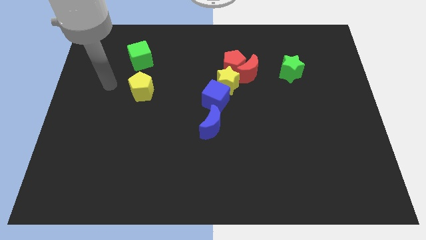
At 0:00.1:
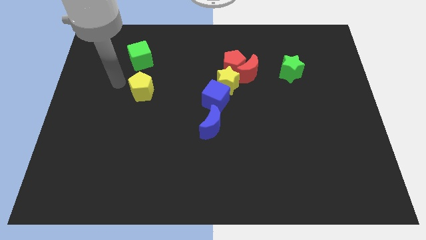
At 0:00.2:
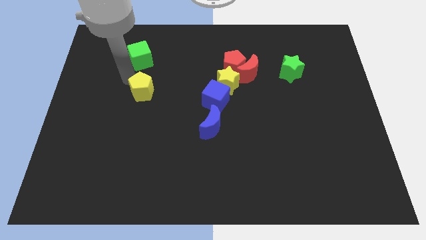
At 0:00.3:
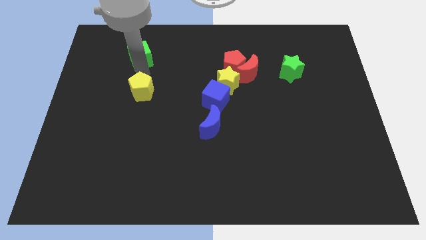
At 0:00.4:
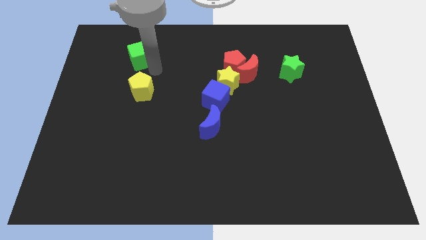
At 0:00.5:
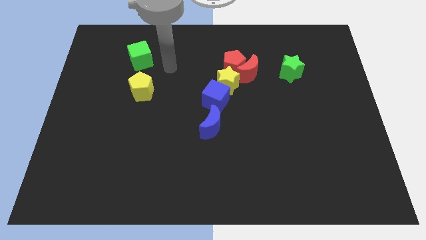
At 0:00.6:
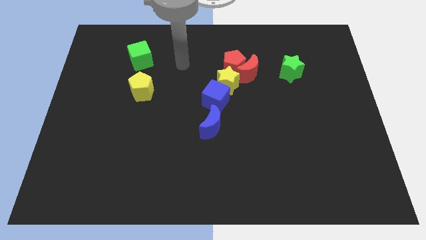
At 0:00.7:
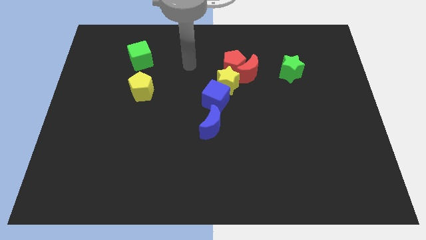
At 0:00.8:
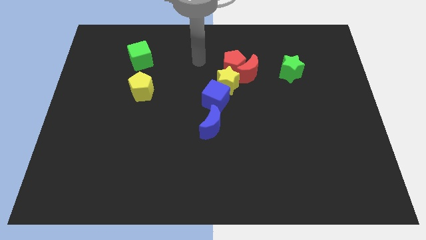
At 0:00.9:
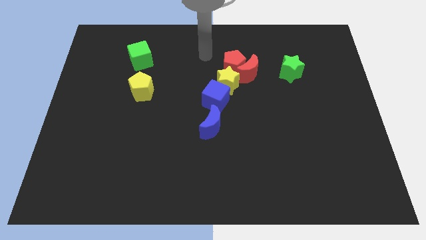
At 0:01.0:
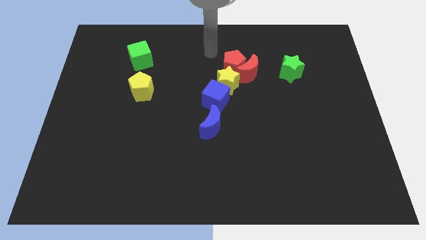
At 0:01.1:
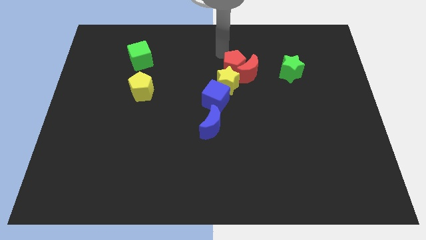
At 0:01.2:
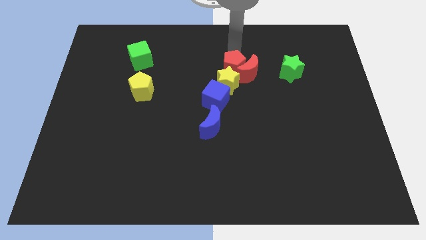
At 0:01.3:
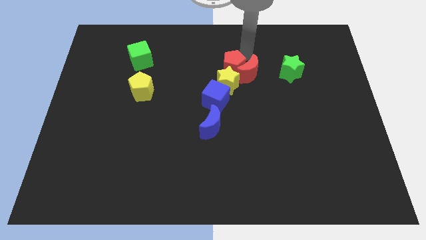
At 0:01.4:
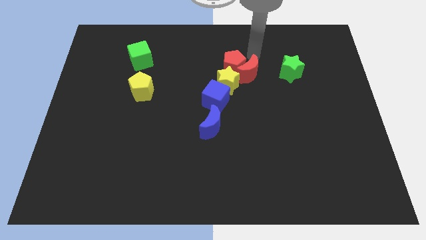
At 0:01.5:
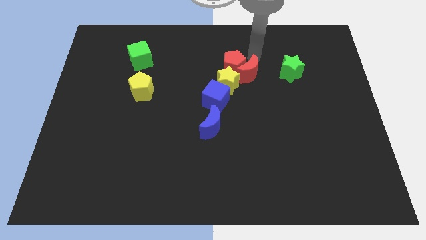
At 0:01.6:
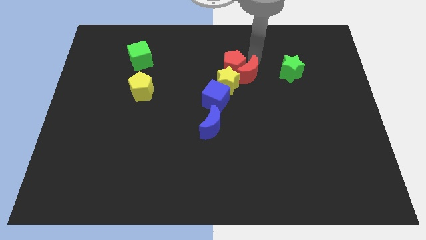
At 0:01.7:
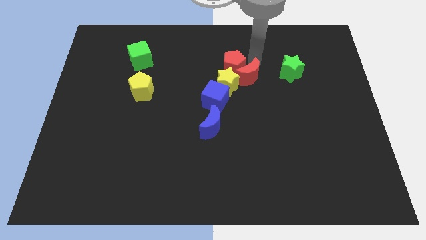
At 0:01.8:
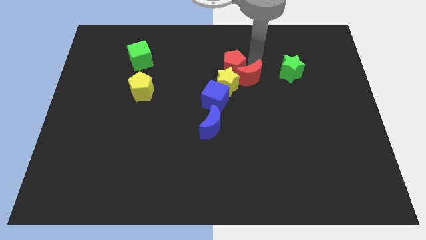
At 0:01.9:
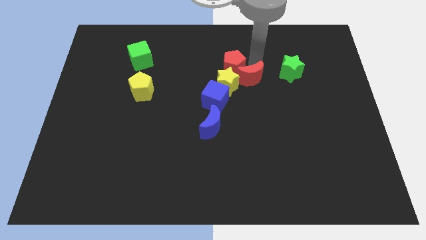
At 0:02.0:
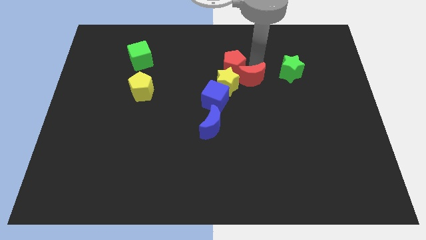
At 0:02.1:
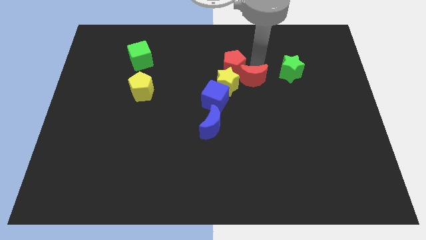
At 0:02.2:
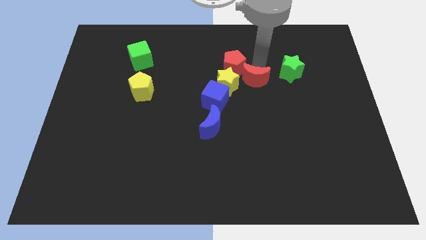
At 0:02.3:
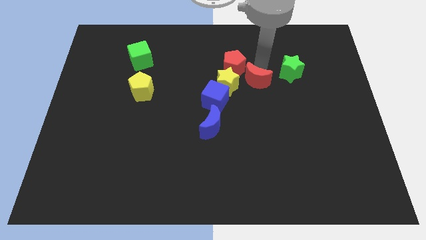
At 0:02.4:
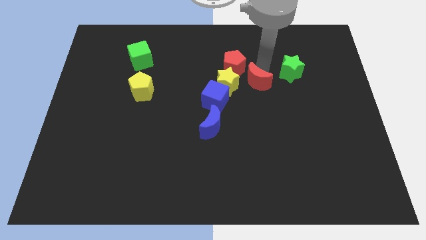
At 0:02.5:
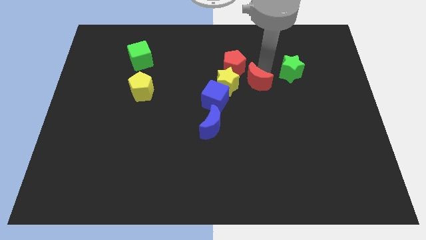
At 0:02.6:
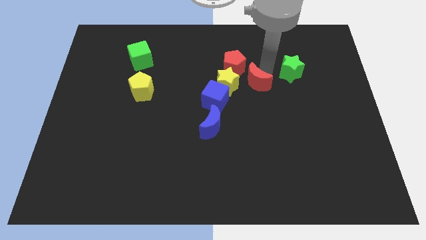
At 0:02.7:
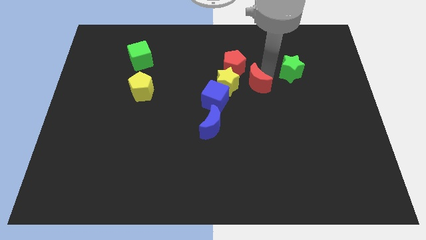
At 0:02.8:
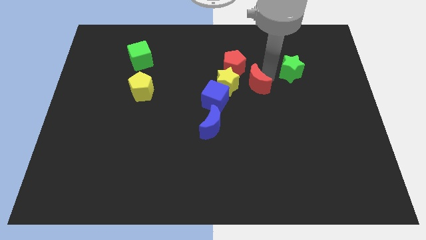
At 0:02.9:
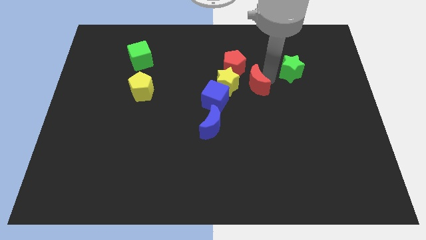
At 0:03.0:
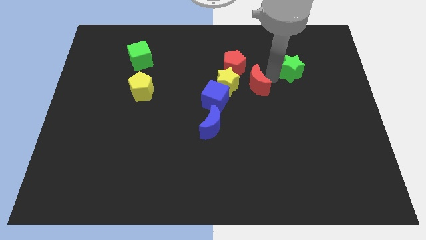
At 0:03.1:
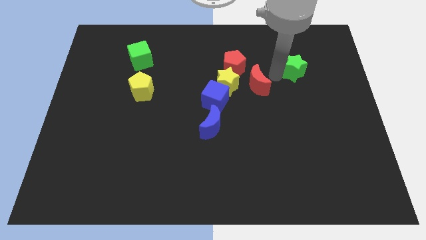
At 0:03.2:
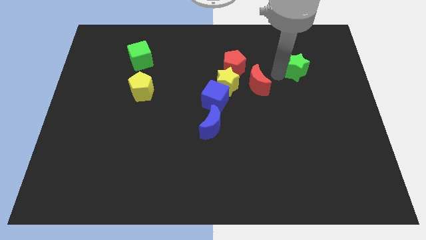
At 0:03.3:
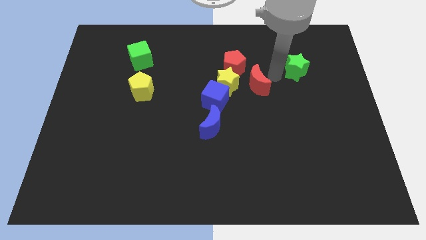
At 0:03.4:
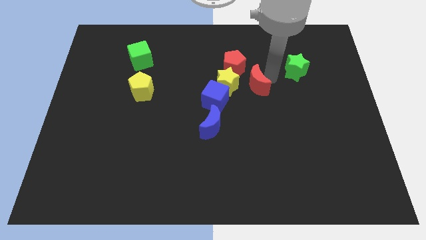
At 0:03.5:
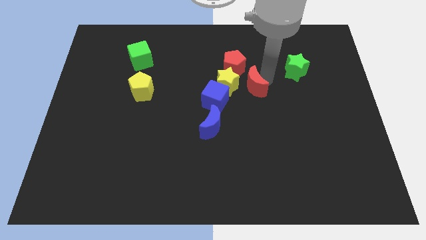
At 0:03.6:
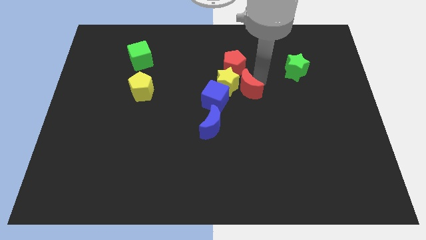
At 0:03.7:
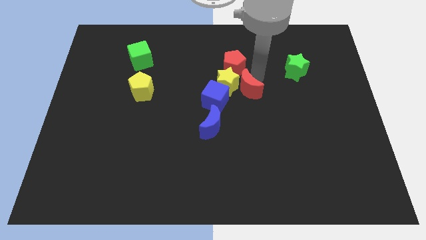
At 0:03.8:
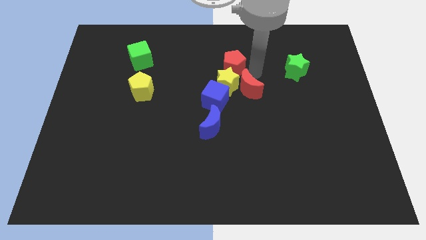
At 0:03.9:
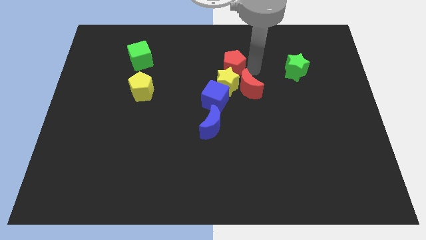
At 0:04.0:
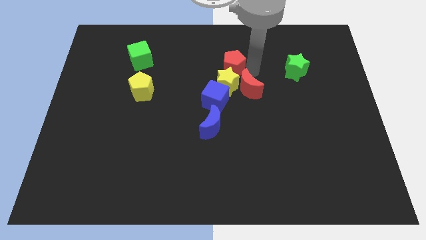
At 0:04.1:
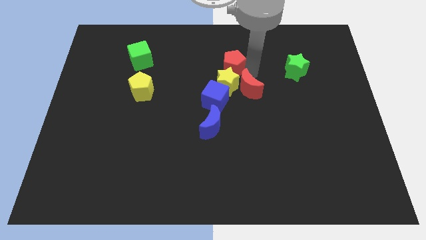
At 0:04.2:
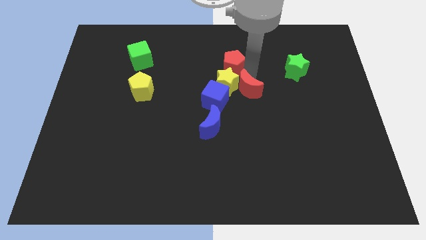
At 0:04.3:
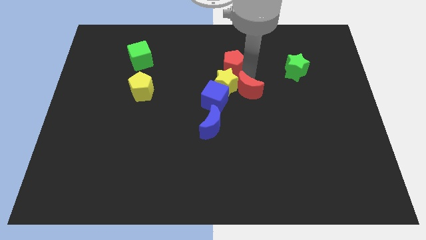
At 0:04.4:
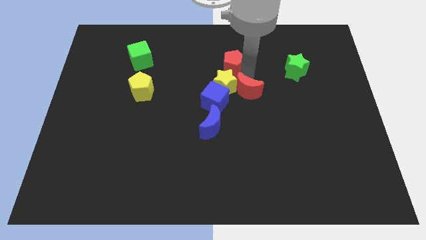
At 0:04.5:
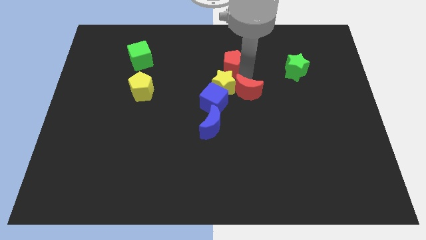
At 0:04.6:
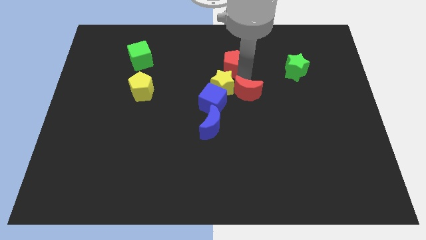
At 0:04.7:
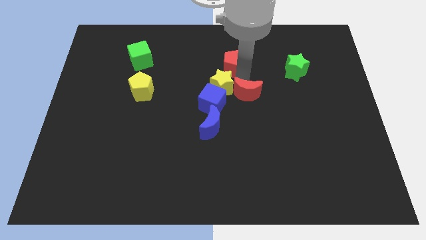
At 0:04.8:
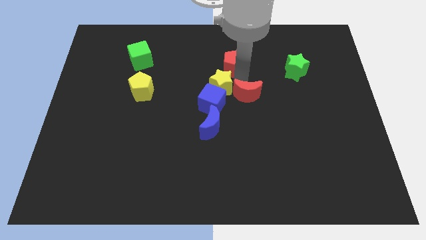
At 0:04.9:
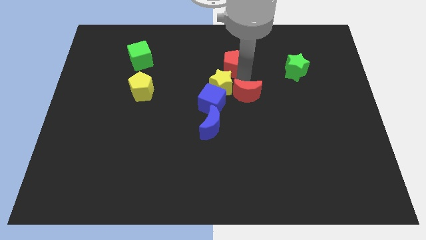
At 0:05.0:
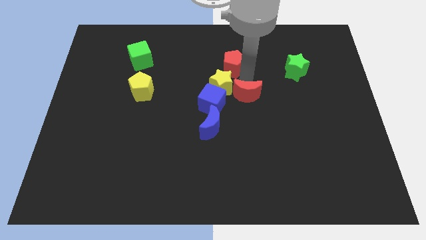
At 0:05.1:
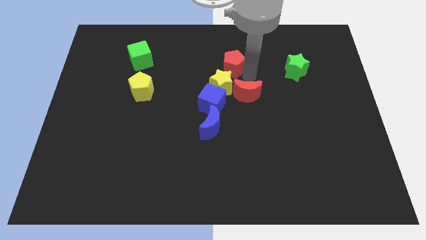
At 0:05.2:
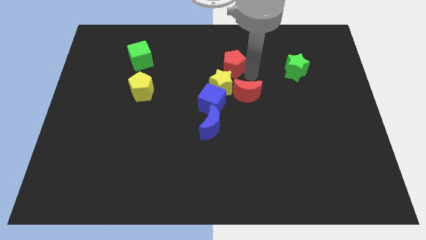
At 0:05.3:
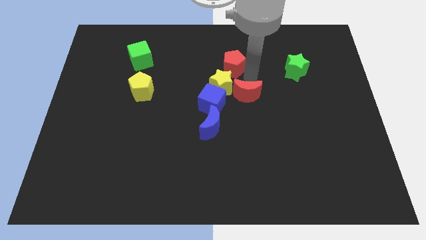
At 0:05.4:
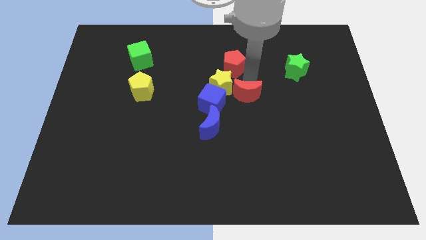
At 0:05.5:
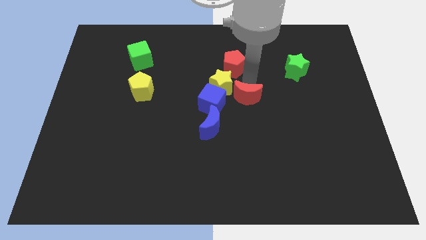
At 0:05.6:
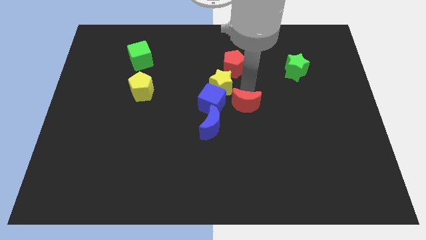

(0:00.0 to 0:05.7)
slightly move the red moon down and then to the left

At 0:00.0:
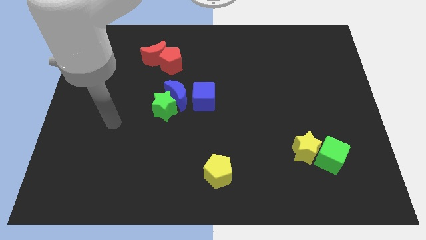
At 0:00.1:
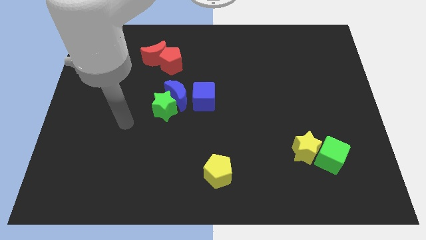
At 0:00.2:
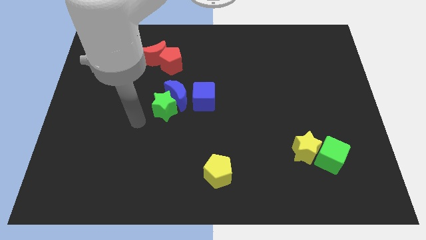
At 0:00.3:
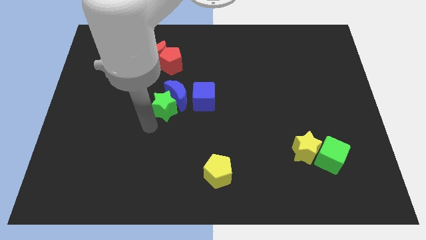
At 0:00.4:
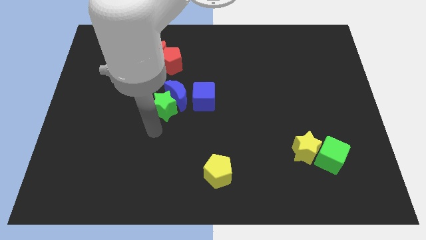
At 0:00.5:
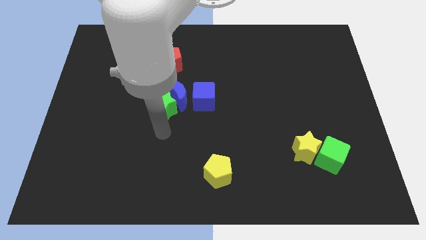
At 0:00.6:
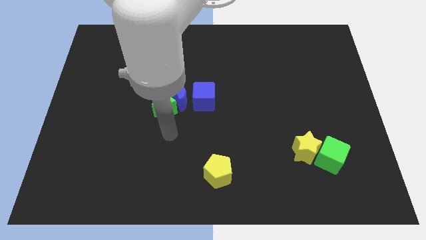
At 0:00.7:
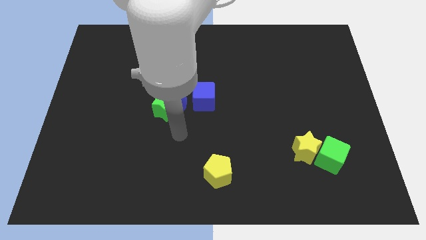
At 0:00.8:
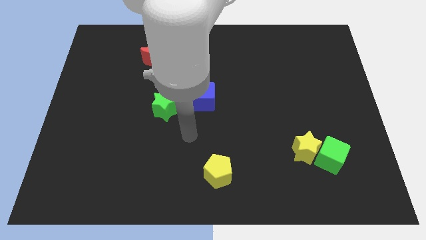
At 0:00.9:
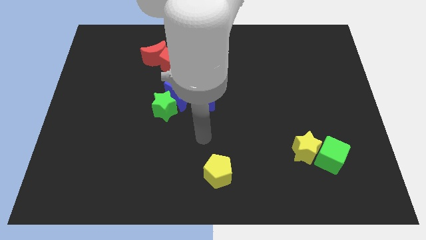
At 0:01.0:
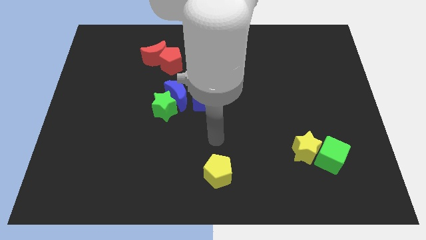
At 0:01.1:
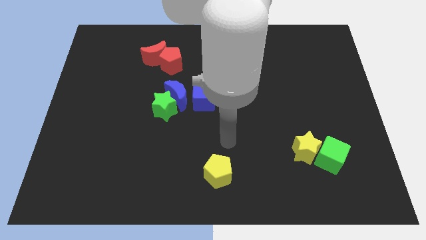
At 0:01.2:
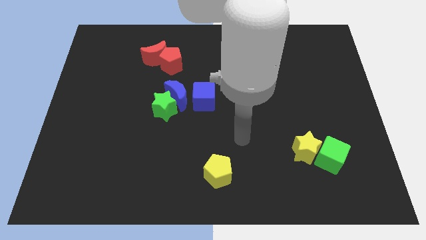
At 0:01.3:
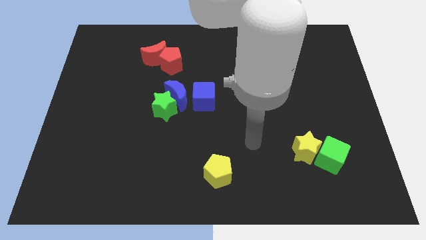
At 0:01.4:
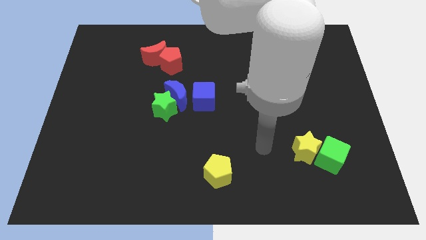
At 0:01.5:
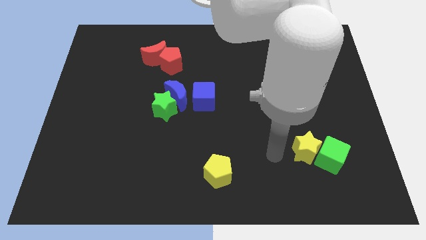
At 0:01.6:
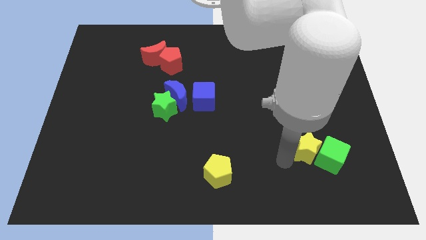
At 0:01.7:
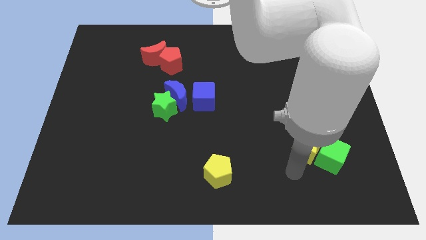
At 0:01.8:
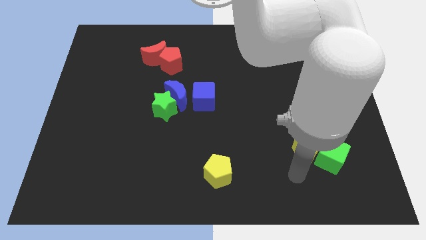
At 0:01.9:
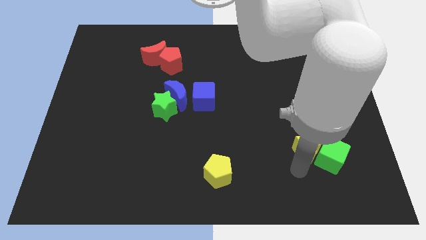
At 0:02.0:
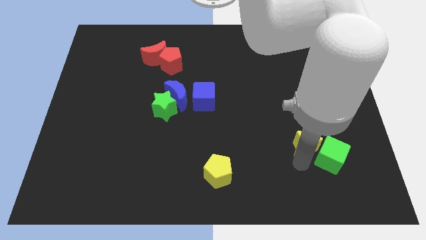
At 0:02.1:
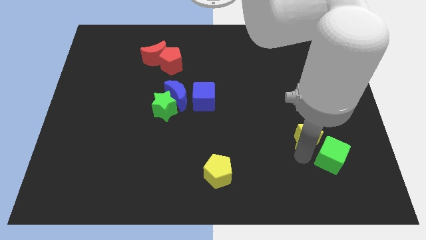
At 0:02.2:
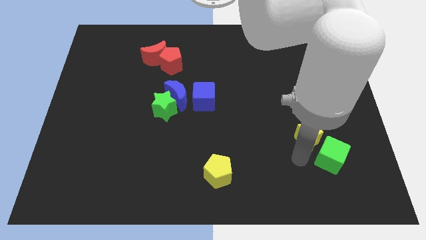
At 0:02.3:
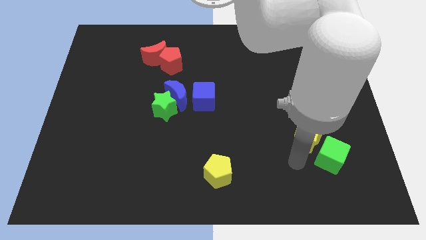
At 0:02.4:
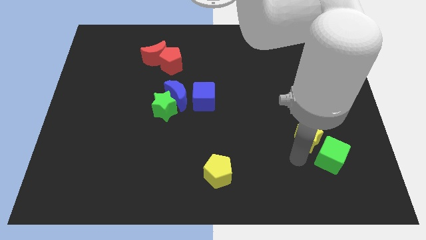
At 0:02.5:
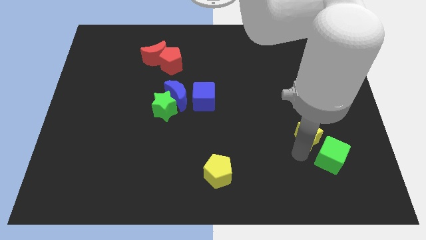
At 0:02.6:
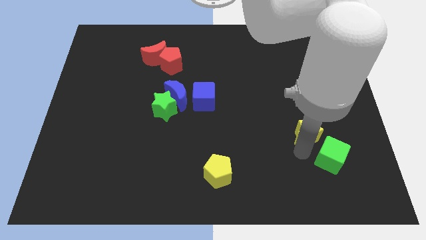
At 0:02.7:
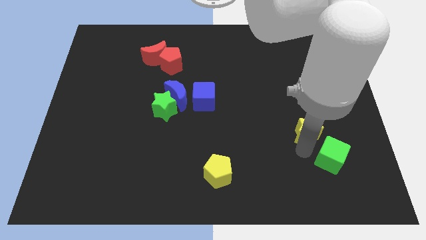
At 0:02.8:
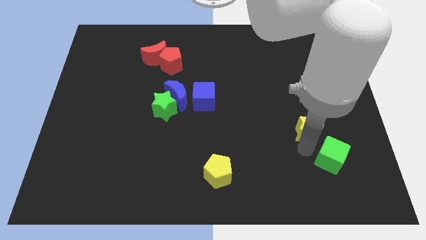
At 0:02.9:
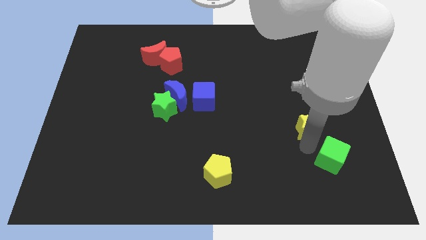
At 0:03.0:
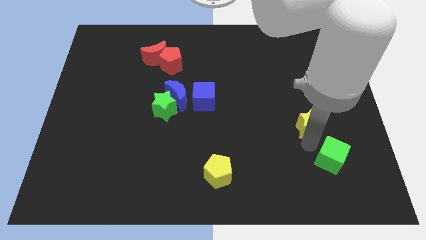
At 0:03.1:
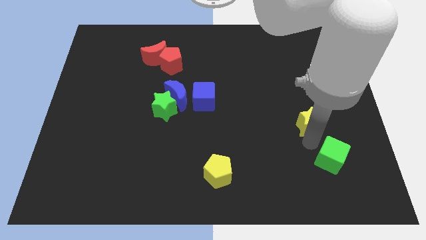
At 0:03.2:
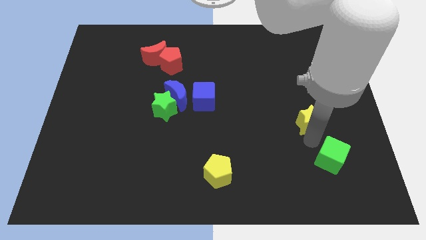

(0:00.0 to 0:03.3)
push the yellow star a little bit upwards
